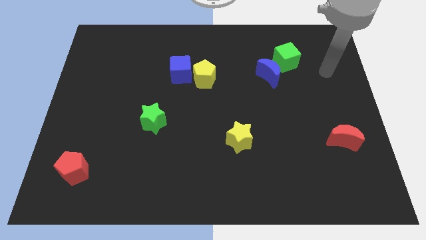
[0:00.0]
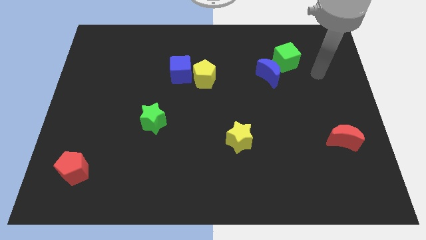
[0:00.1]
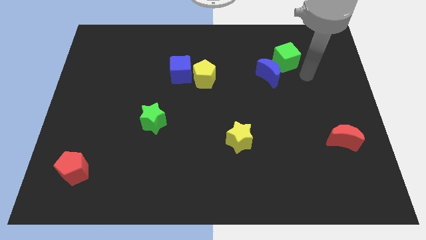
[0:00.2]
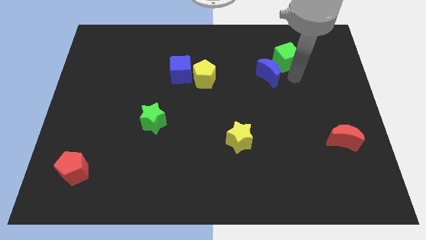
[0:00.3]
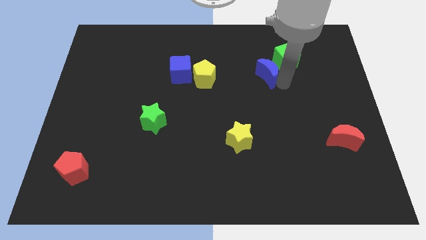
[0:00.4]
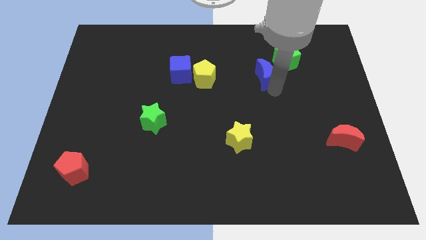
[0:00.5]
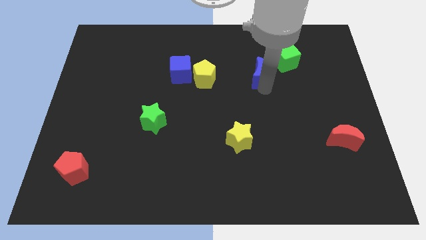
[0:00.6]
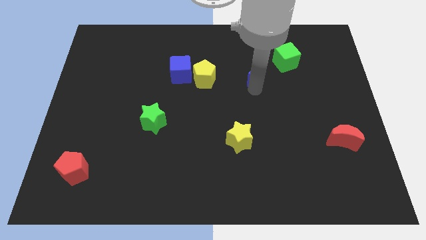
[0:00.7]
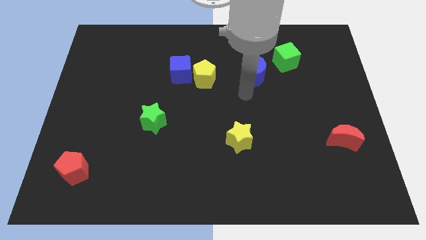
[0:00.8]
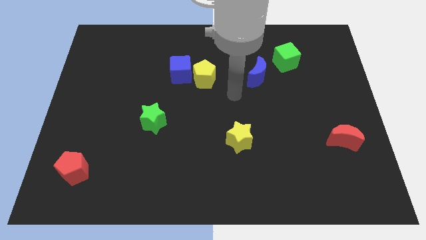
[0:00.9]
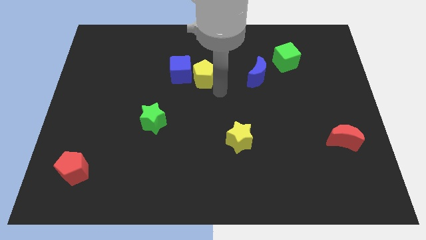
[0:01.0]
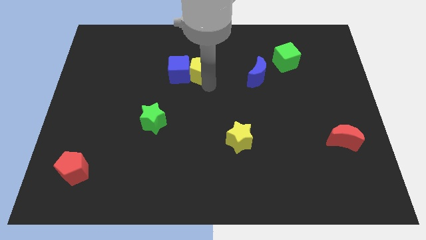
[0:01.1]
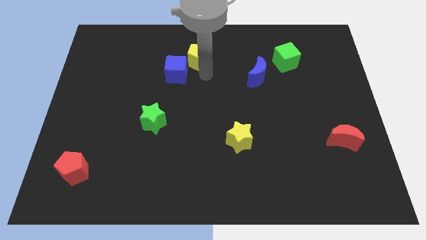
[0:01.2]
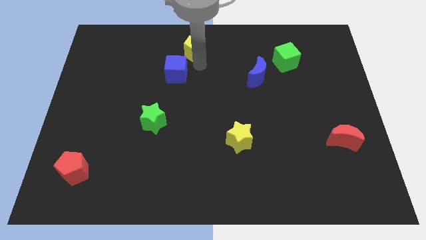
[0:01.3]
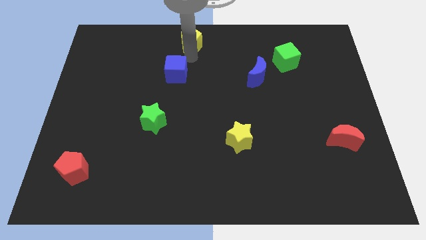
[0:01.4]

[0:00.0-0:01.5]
separate the blue cube from the yellow pentagon

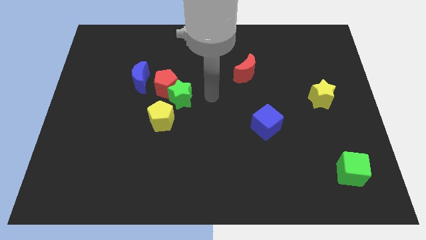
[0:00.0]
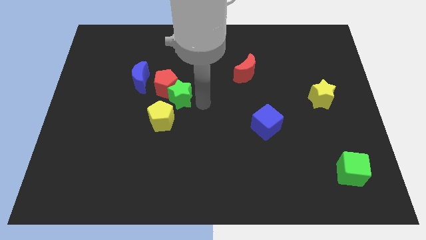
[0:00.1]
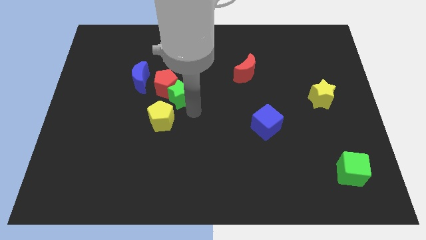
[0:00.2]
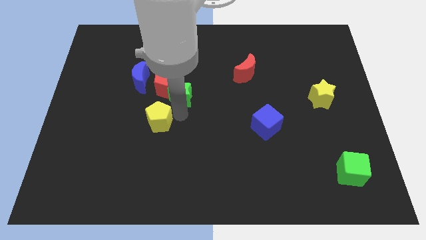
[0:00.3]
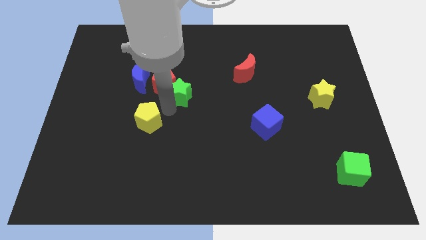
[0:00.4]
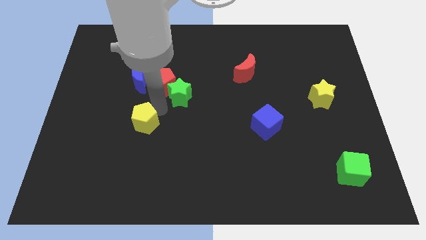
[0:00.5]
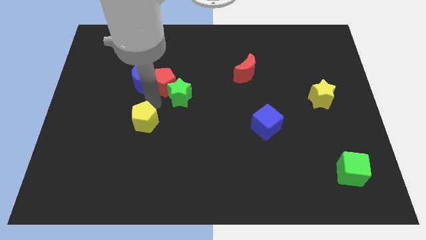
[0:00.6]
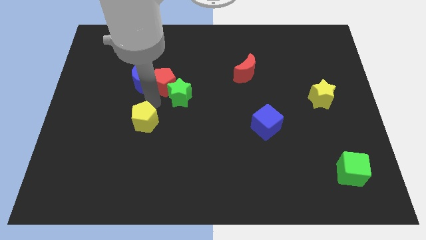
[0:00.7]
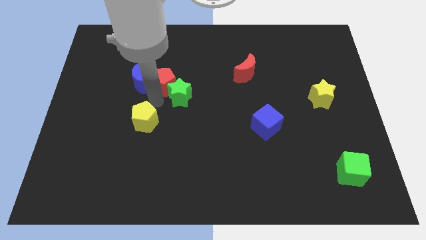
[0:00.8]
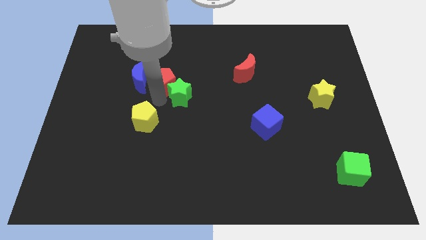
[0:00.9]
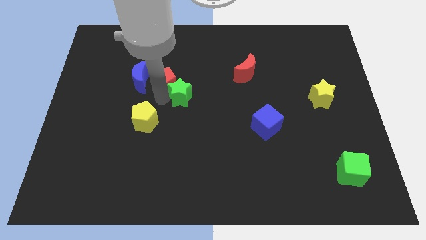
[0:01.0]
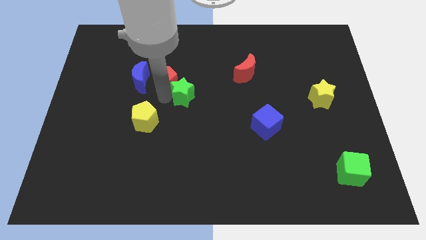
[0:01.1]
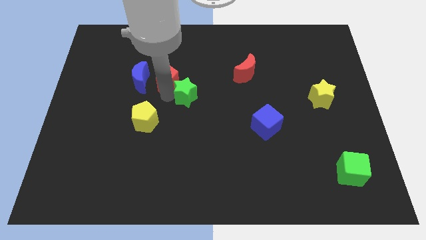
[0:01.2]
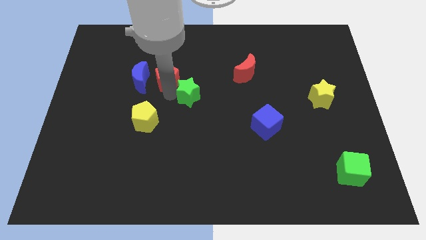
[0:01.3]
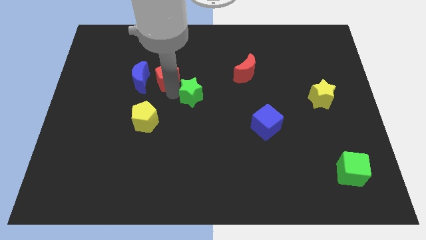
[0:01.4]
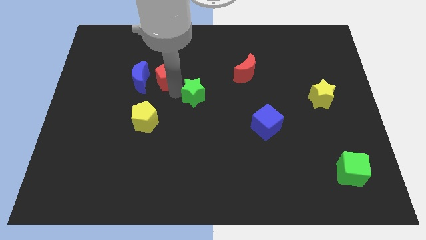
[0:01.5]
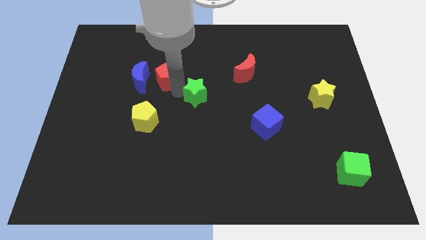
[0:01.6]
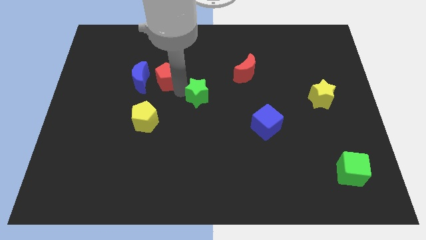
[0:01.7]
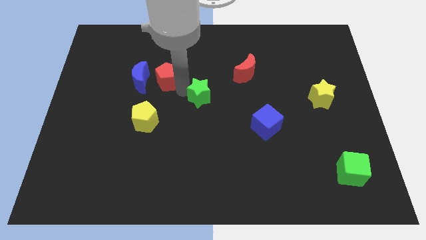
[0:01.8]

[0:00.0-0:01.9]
separate the green star from the red pentagon and yellow pentagon

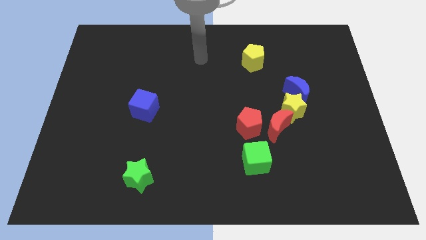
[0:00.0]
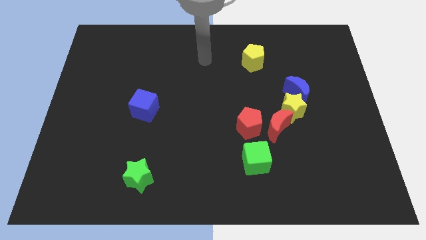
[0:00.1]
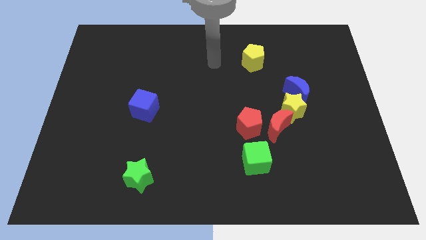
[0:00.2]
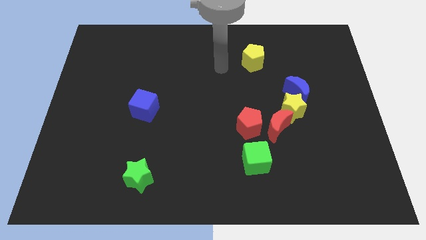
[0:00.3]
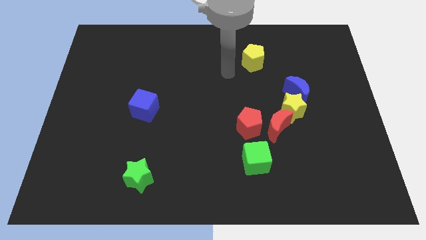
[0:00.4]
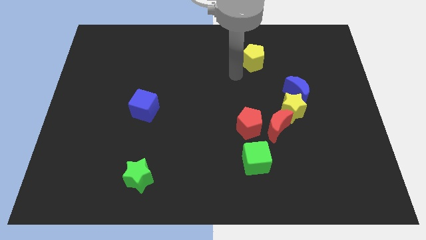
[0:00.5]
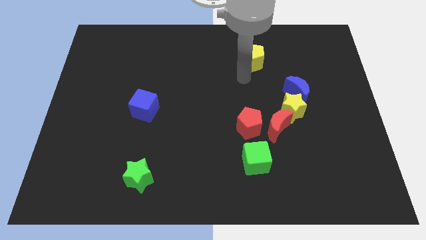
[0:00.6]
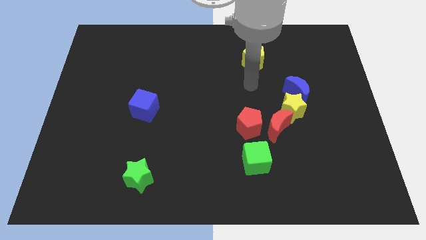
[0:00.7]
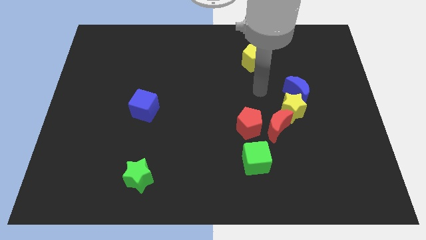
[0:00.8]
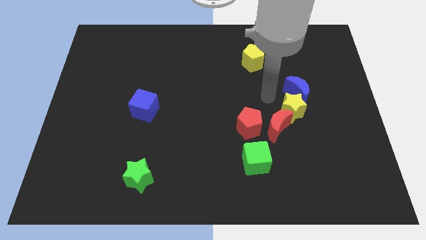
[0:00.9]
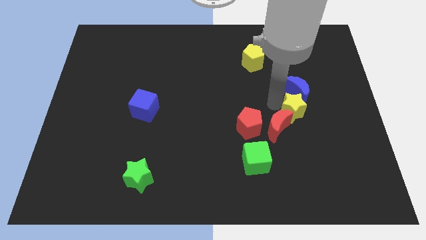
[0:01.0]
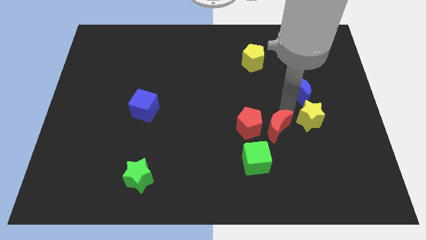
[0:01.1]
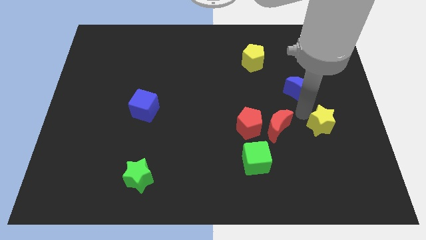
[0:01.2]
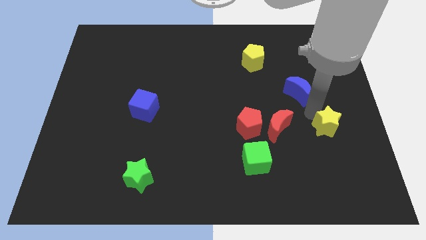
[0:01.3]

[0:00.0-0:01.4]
separate the blue moon from the yellow star

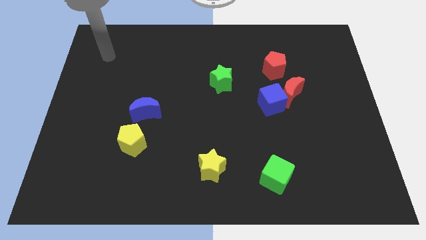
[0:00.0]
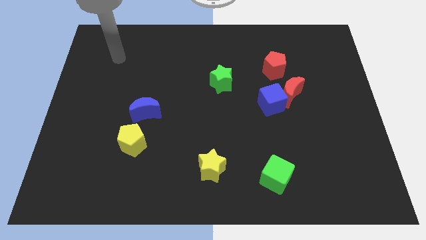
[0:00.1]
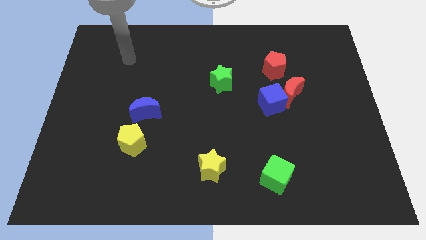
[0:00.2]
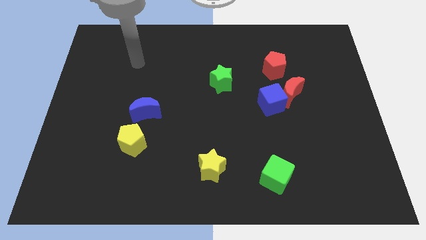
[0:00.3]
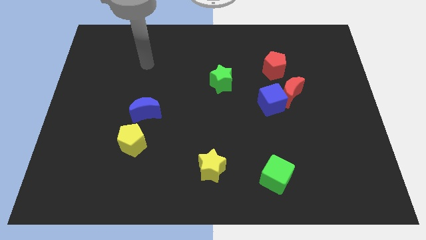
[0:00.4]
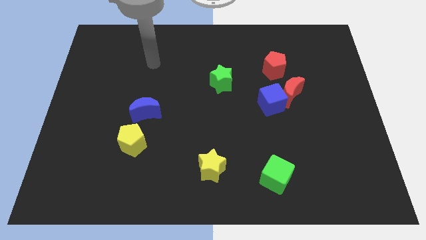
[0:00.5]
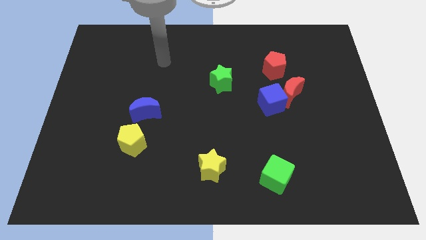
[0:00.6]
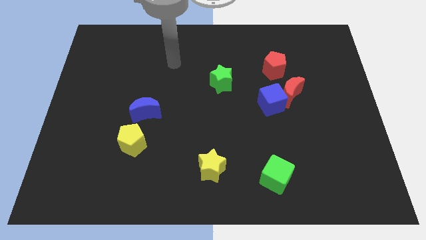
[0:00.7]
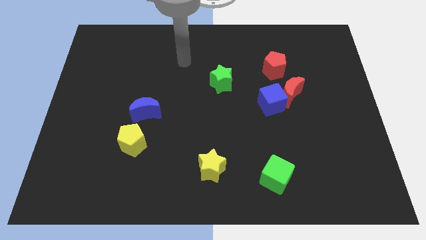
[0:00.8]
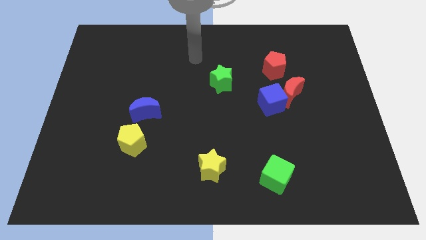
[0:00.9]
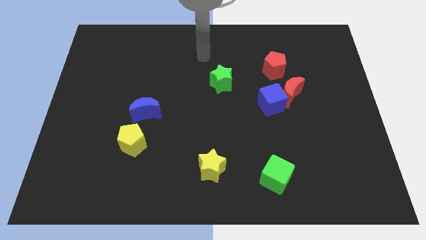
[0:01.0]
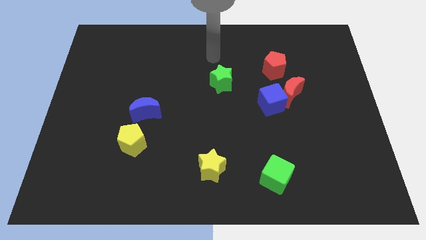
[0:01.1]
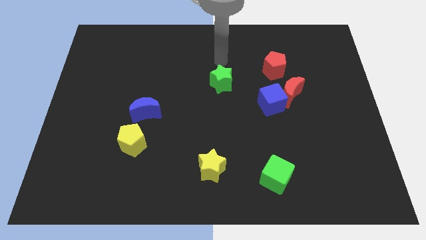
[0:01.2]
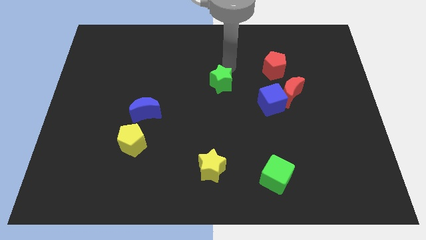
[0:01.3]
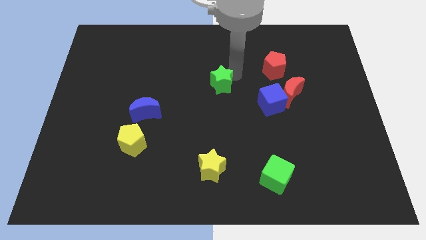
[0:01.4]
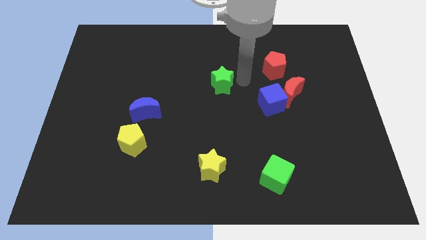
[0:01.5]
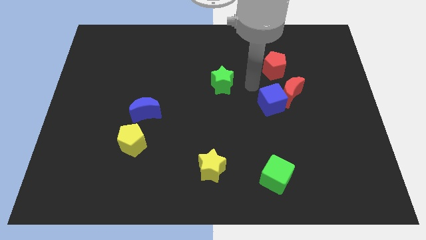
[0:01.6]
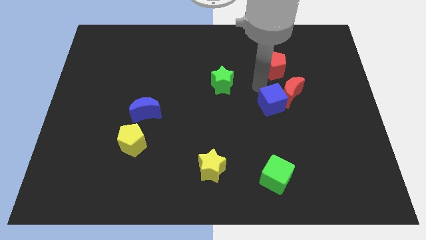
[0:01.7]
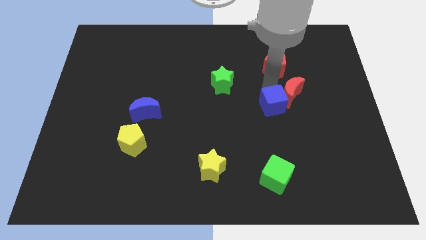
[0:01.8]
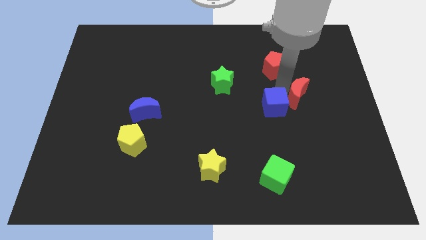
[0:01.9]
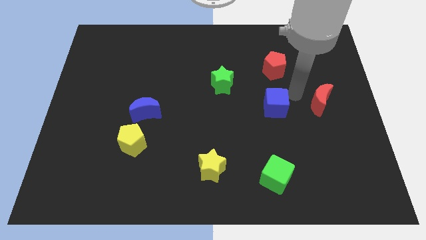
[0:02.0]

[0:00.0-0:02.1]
separate the blue cube from the red moon

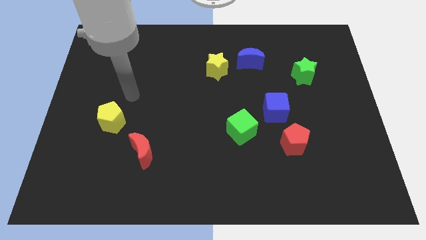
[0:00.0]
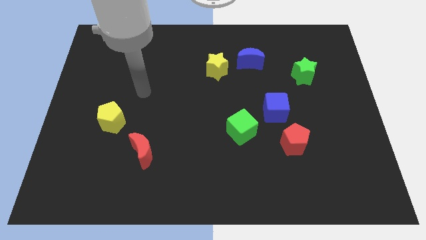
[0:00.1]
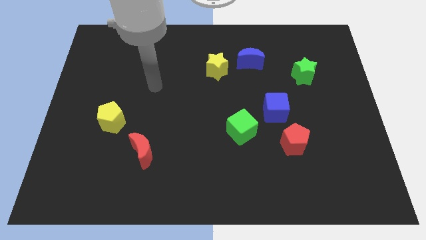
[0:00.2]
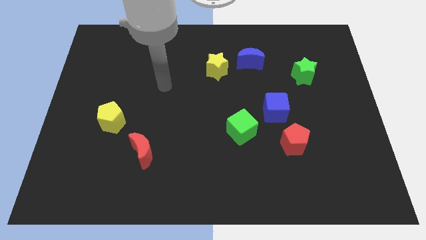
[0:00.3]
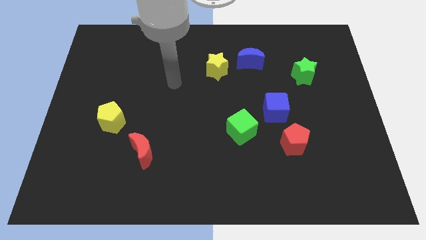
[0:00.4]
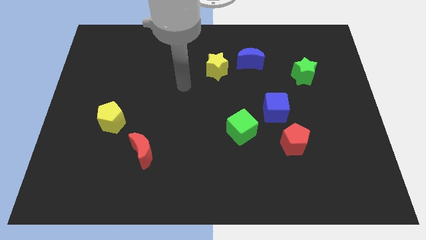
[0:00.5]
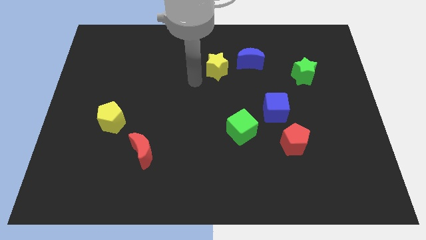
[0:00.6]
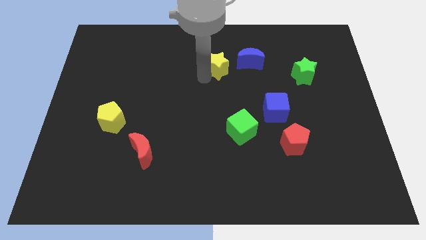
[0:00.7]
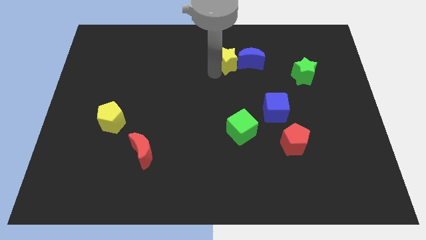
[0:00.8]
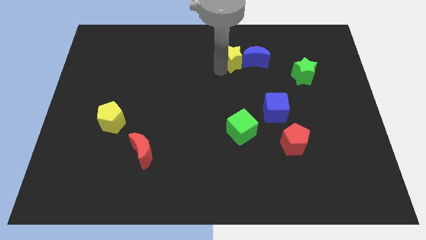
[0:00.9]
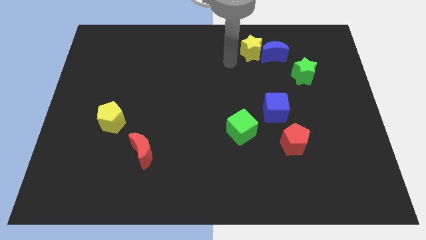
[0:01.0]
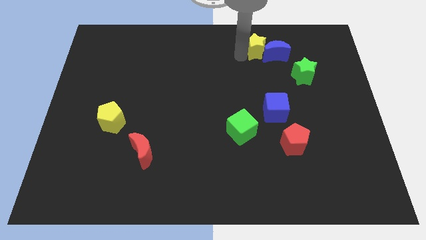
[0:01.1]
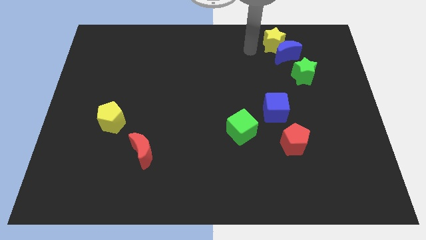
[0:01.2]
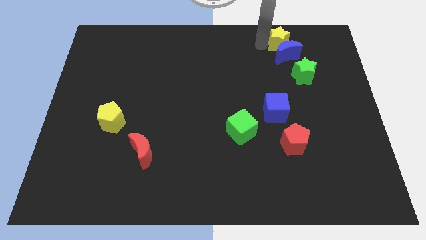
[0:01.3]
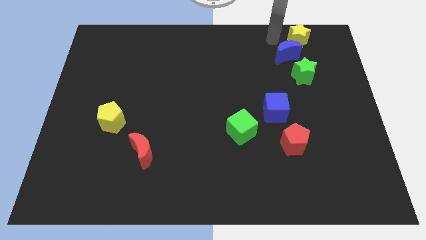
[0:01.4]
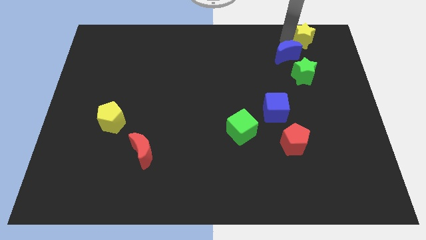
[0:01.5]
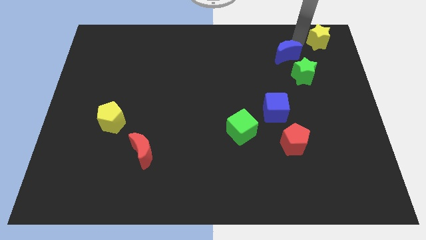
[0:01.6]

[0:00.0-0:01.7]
move the blue moon away from the yellow star

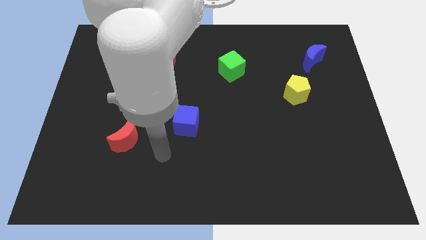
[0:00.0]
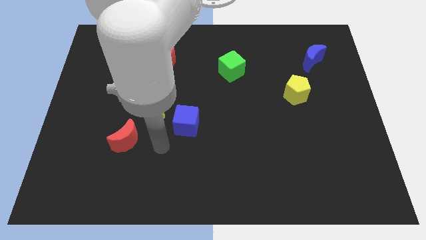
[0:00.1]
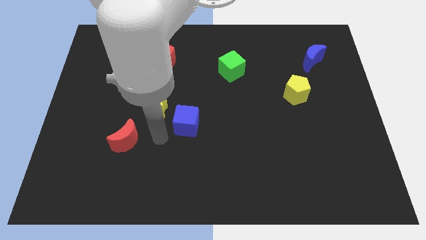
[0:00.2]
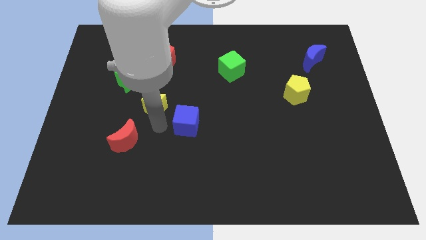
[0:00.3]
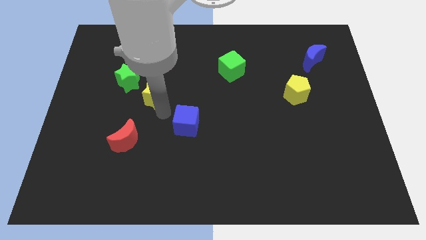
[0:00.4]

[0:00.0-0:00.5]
pull the blue cube apart from the yellow star

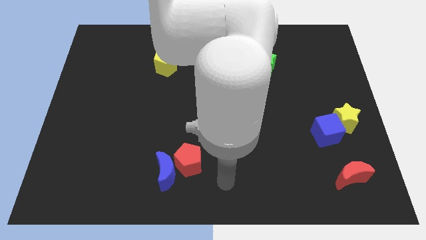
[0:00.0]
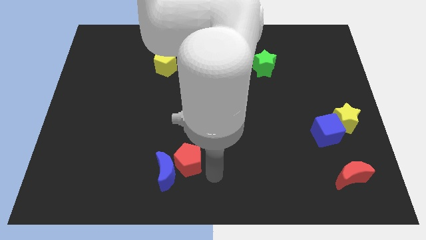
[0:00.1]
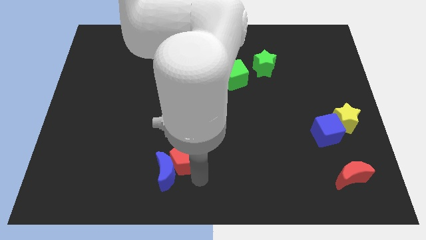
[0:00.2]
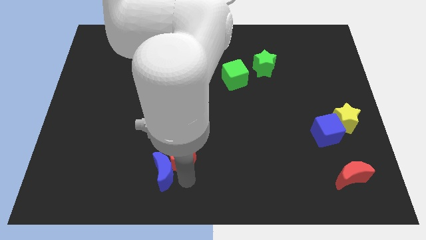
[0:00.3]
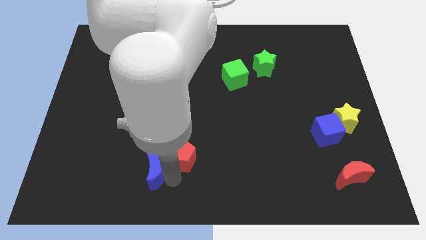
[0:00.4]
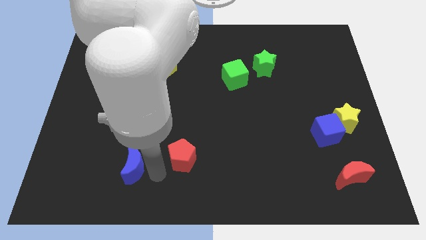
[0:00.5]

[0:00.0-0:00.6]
pull the red pentagon apart from the blue moon
